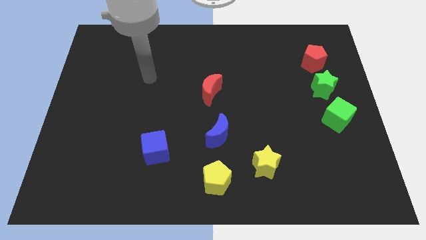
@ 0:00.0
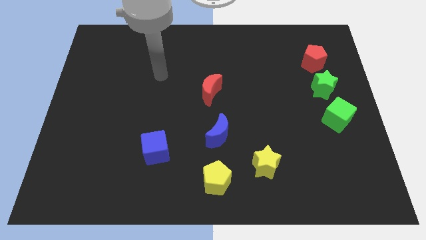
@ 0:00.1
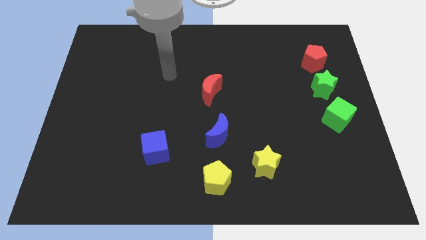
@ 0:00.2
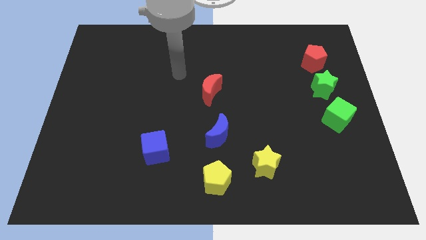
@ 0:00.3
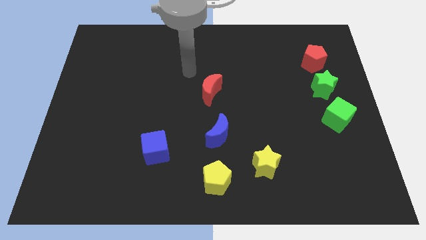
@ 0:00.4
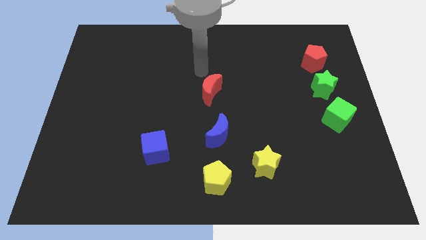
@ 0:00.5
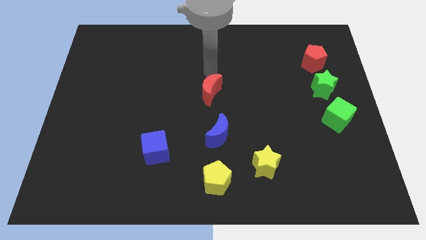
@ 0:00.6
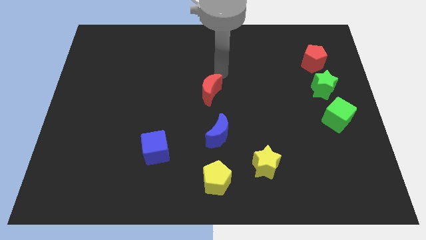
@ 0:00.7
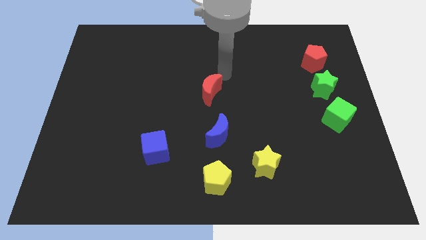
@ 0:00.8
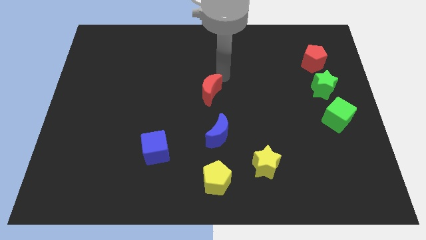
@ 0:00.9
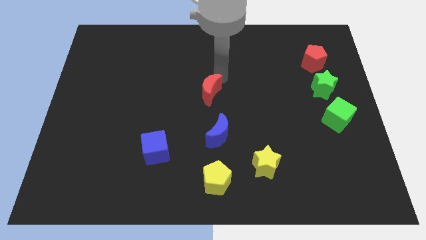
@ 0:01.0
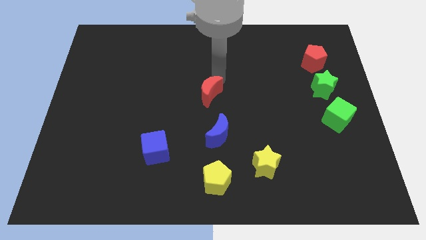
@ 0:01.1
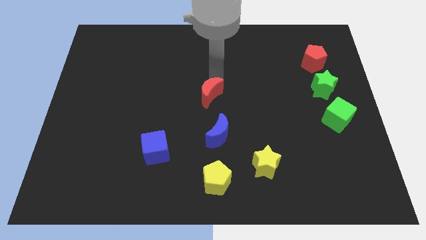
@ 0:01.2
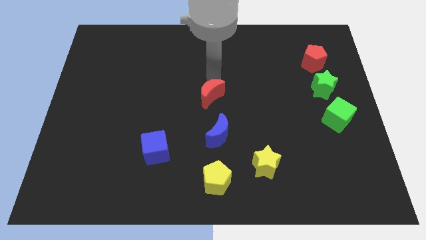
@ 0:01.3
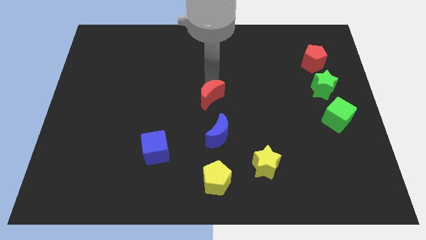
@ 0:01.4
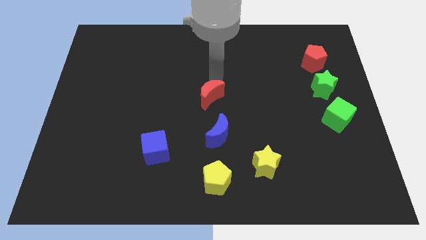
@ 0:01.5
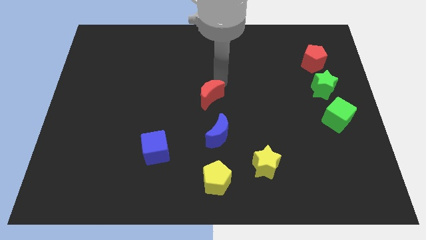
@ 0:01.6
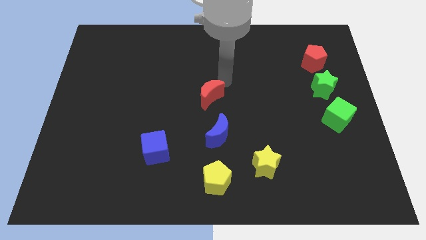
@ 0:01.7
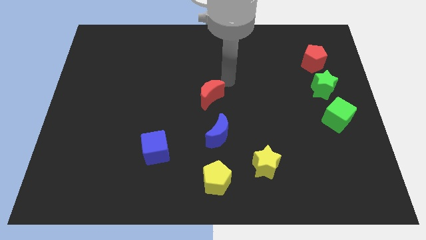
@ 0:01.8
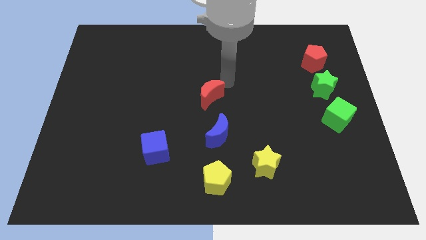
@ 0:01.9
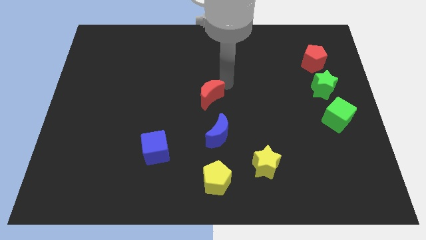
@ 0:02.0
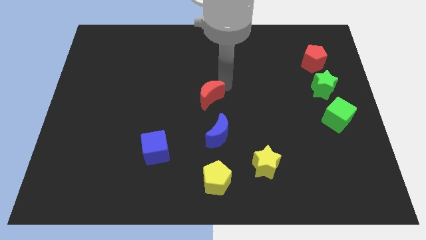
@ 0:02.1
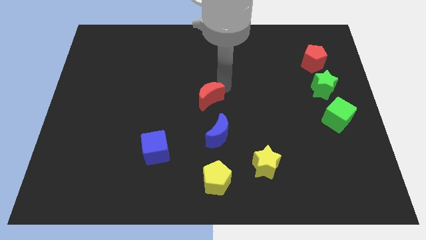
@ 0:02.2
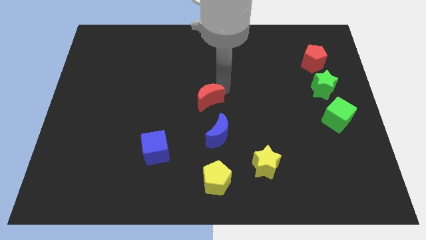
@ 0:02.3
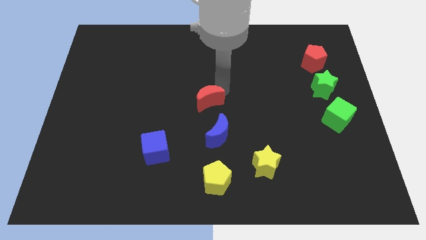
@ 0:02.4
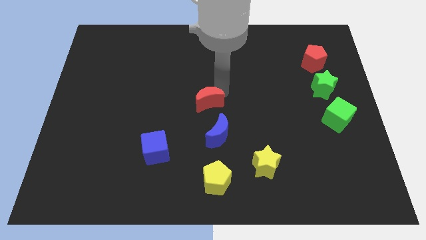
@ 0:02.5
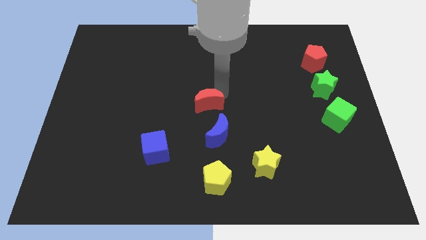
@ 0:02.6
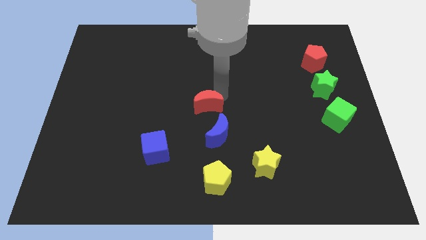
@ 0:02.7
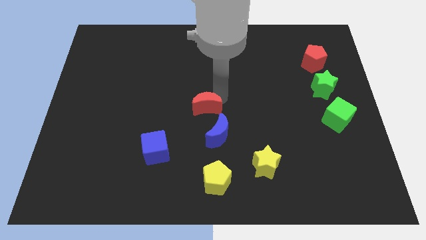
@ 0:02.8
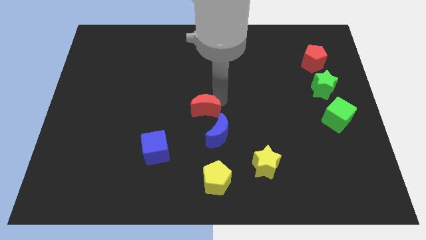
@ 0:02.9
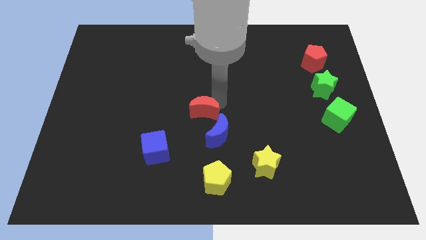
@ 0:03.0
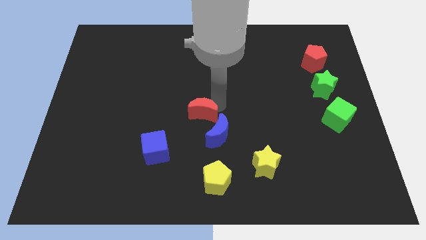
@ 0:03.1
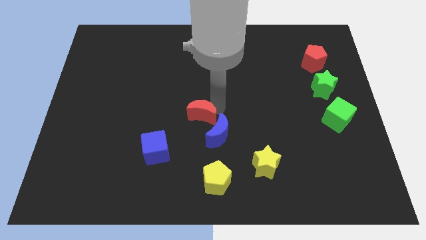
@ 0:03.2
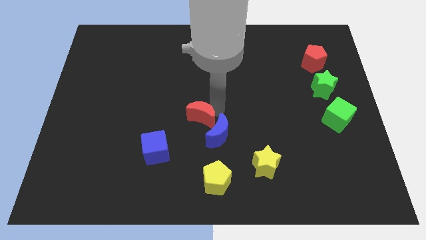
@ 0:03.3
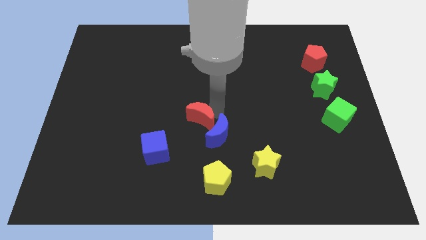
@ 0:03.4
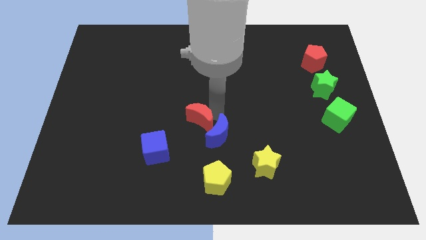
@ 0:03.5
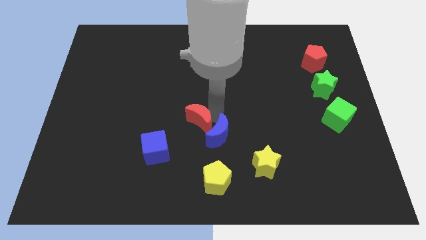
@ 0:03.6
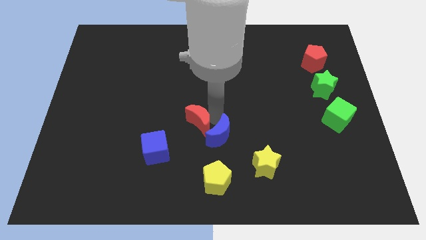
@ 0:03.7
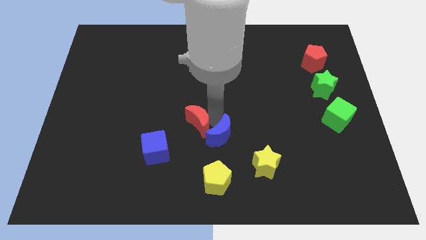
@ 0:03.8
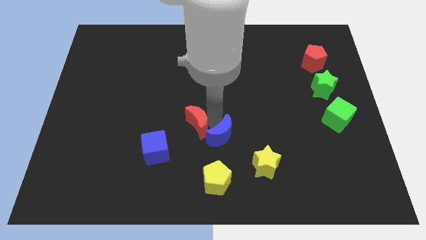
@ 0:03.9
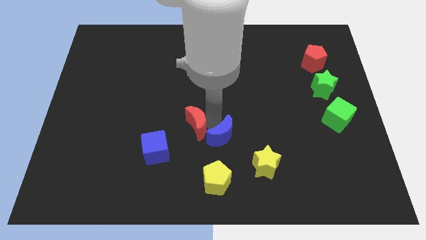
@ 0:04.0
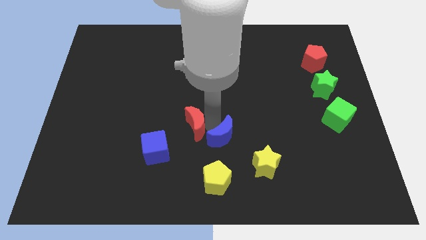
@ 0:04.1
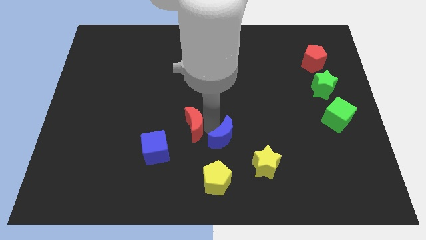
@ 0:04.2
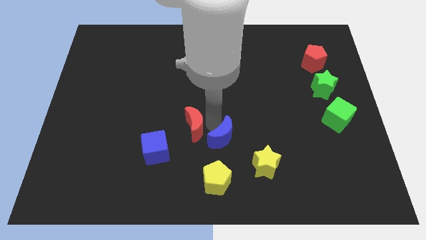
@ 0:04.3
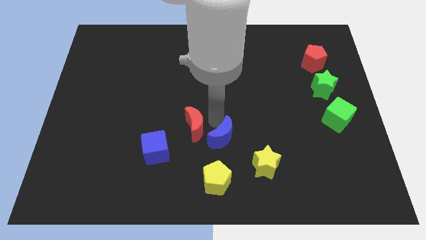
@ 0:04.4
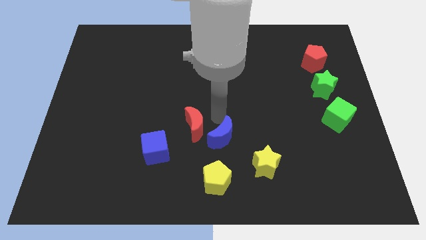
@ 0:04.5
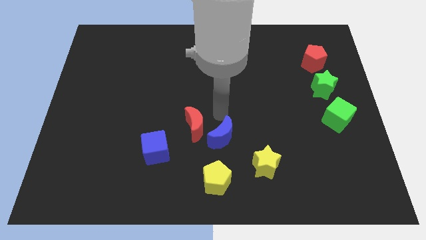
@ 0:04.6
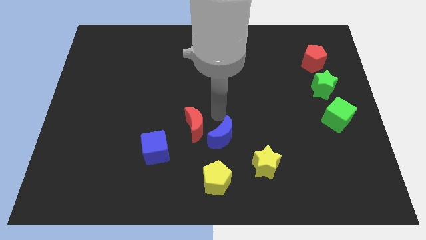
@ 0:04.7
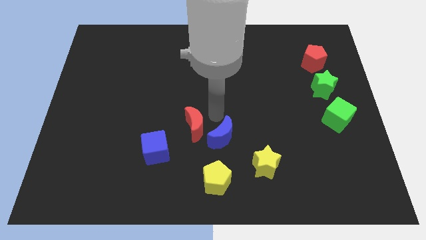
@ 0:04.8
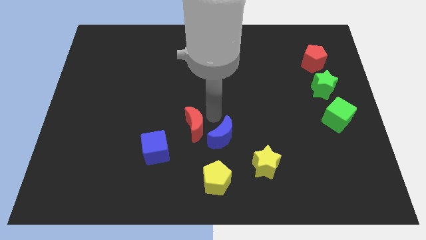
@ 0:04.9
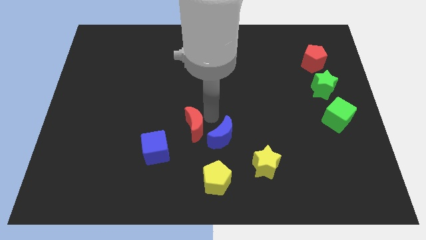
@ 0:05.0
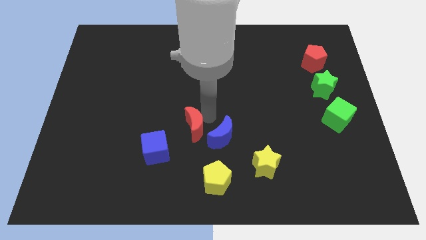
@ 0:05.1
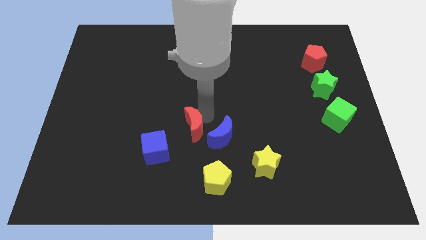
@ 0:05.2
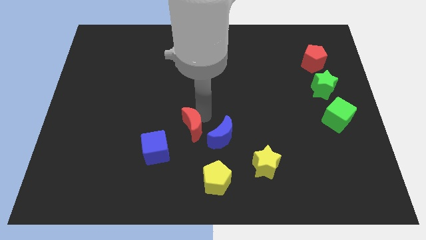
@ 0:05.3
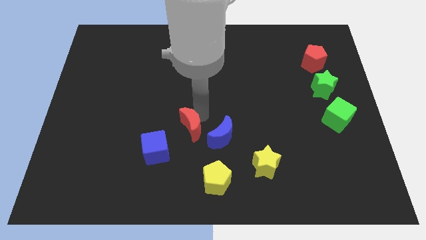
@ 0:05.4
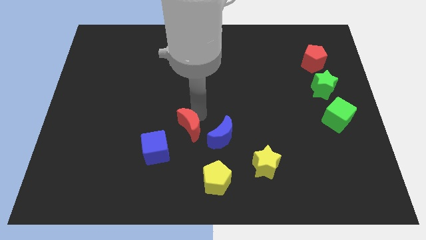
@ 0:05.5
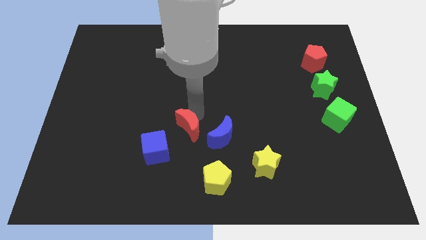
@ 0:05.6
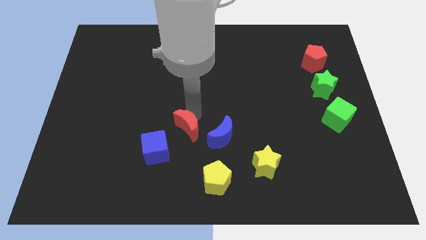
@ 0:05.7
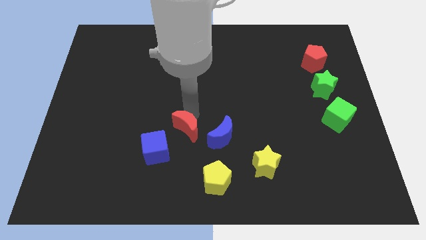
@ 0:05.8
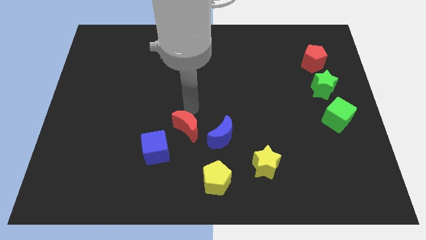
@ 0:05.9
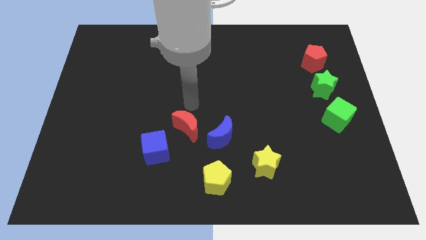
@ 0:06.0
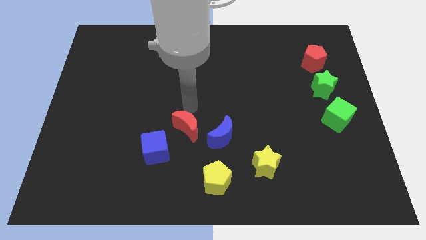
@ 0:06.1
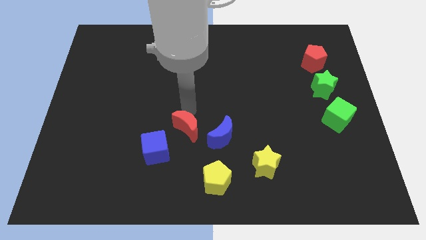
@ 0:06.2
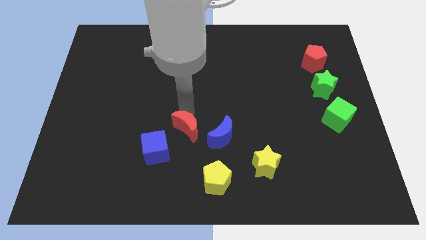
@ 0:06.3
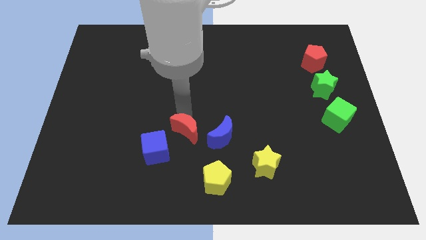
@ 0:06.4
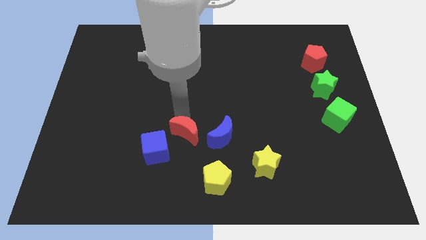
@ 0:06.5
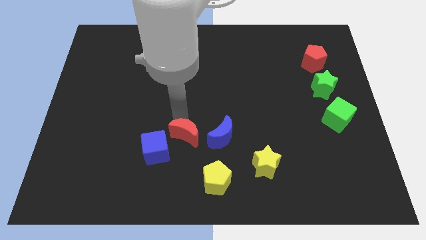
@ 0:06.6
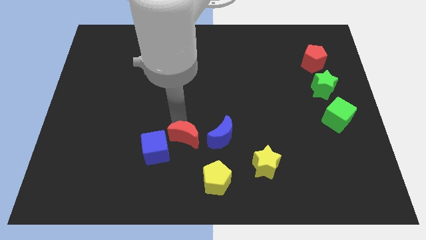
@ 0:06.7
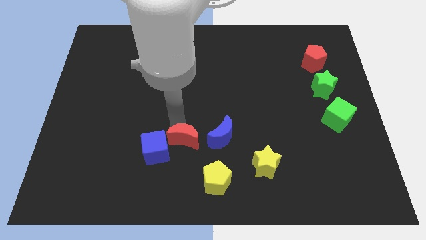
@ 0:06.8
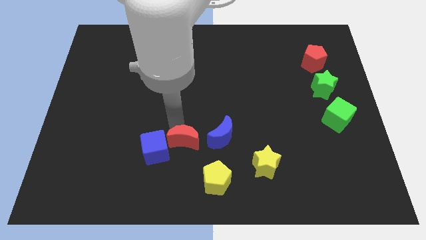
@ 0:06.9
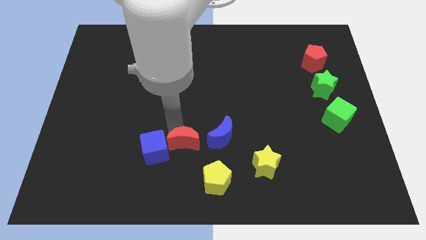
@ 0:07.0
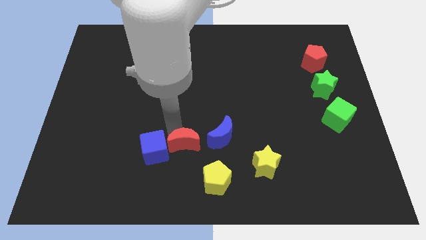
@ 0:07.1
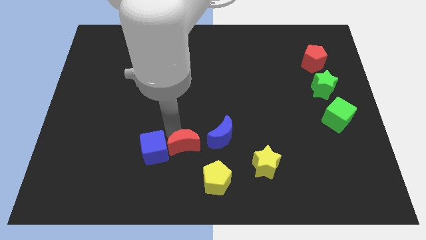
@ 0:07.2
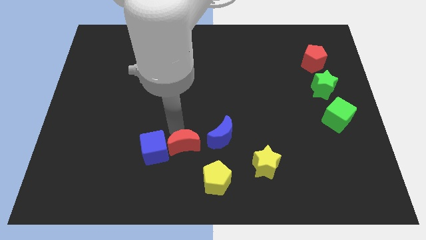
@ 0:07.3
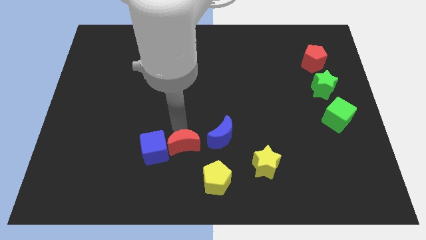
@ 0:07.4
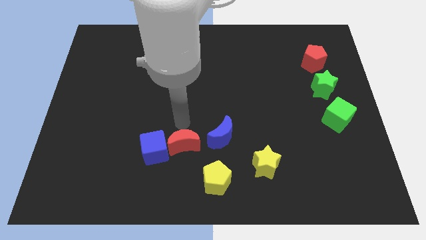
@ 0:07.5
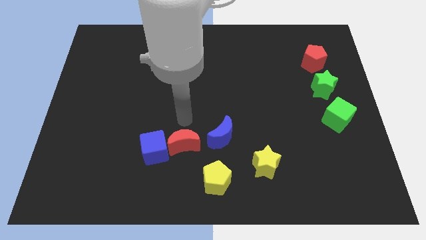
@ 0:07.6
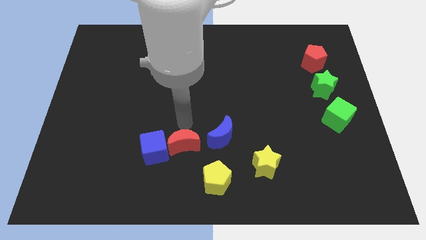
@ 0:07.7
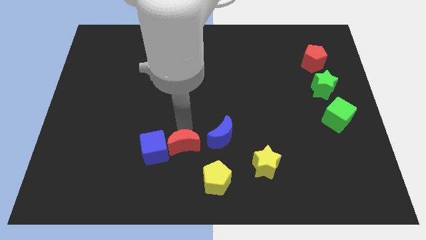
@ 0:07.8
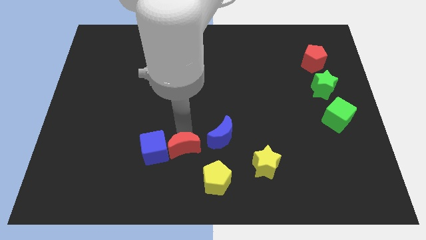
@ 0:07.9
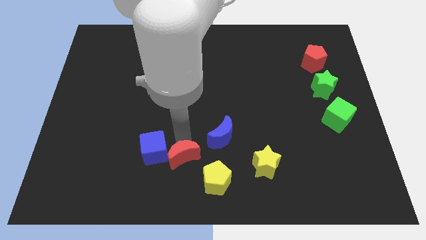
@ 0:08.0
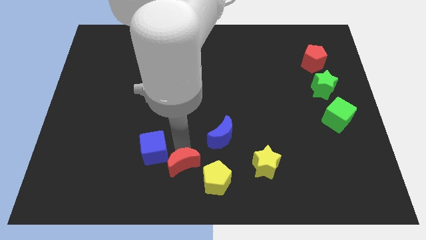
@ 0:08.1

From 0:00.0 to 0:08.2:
move the red moon to the bottom
